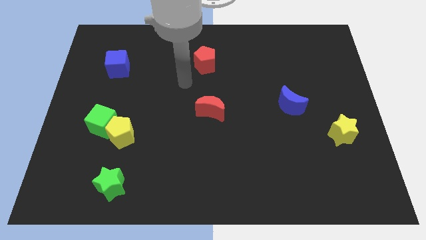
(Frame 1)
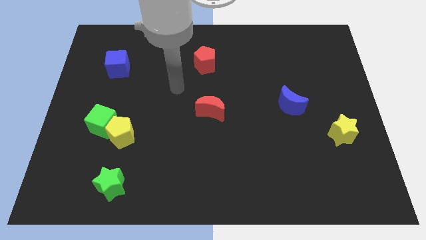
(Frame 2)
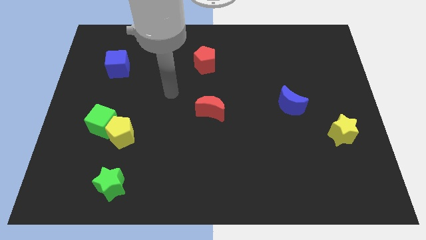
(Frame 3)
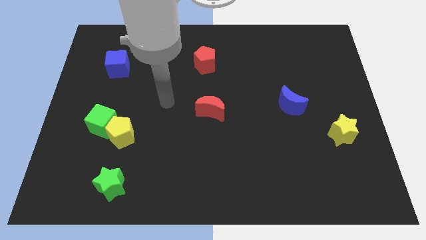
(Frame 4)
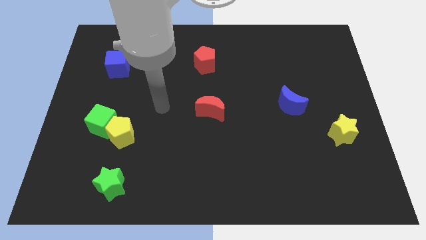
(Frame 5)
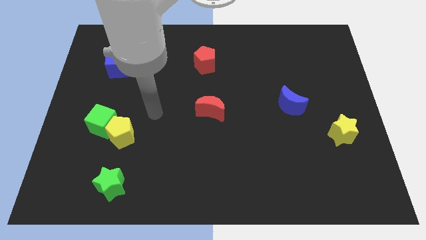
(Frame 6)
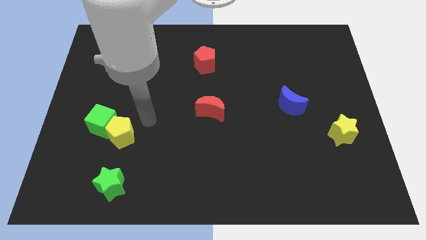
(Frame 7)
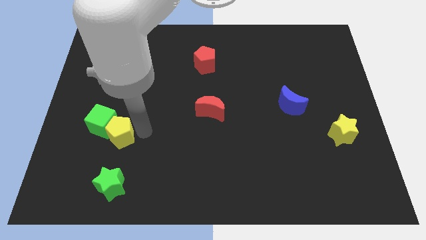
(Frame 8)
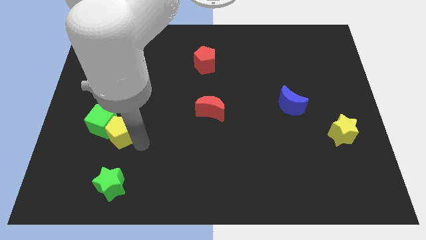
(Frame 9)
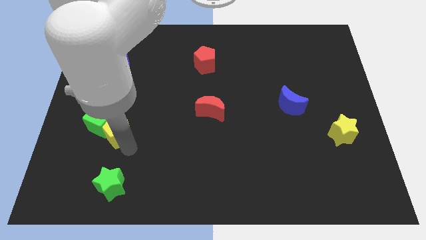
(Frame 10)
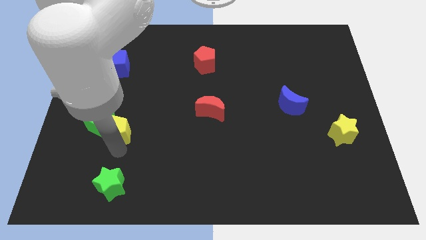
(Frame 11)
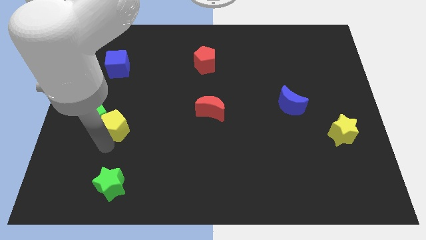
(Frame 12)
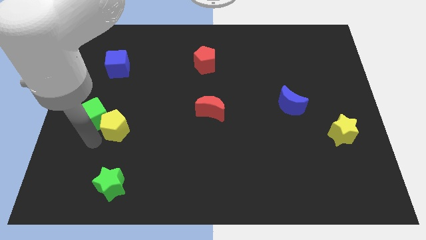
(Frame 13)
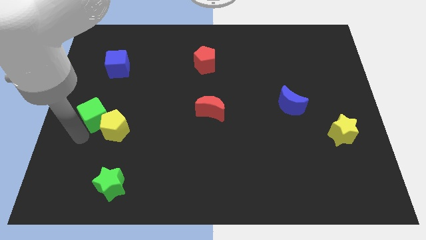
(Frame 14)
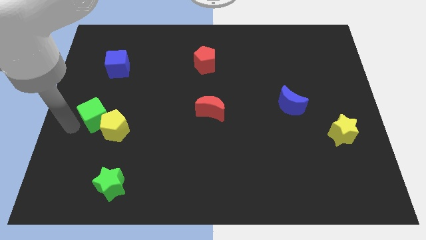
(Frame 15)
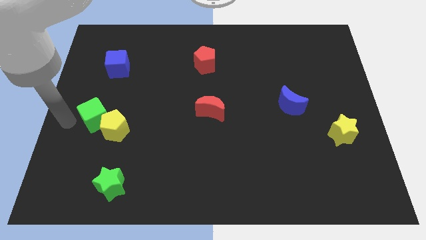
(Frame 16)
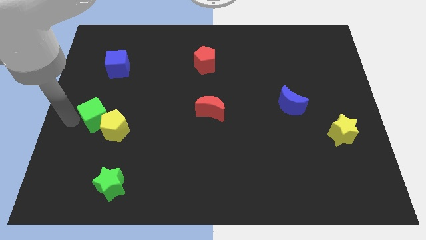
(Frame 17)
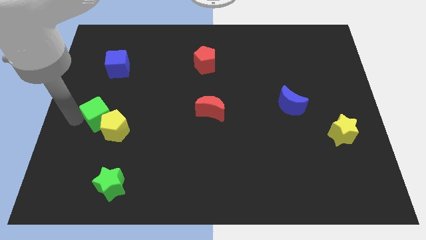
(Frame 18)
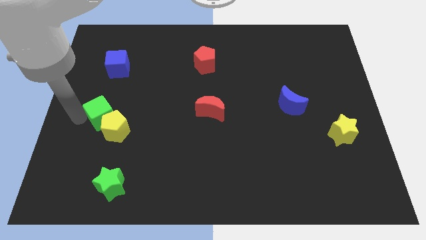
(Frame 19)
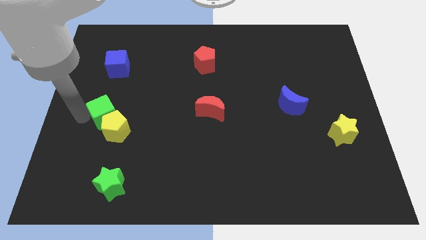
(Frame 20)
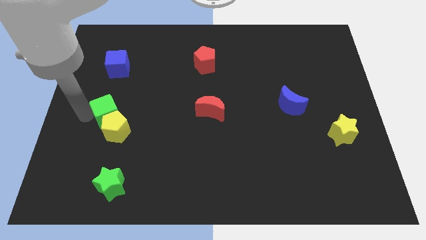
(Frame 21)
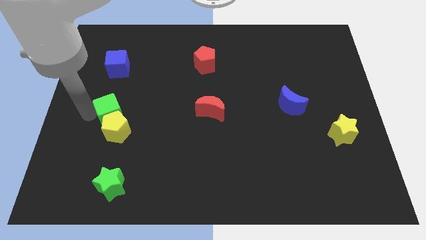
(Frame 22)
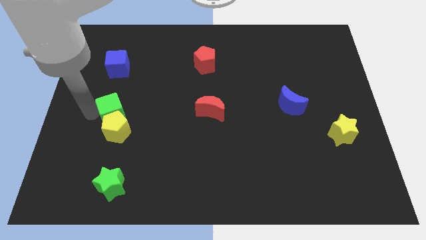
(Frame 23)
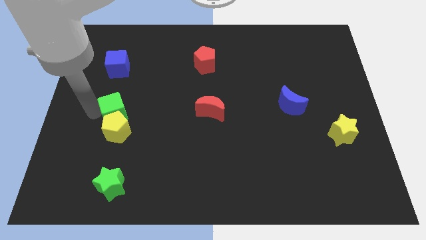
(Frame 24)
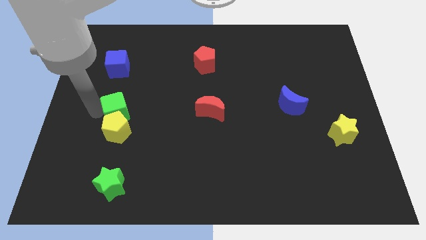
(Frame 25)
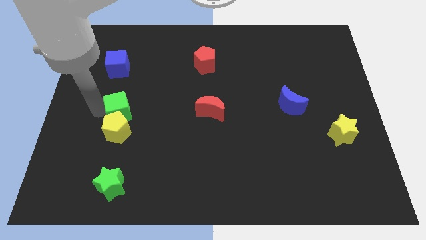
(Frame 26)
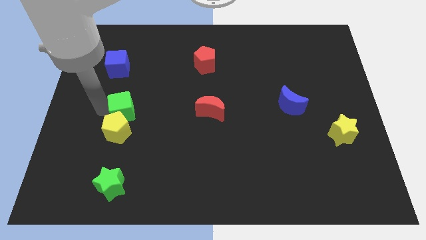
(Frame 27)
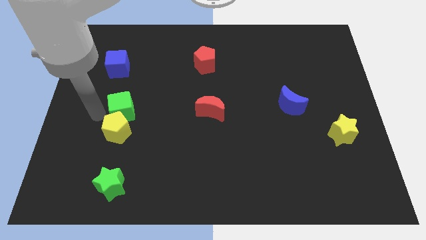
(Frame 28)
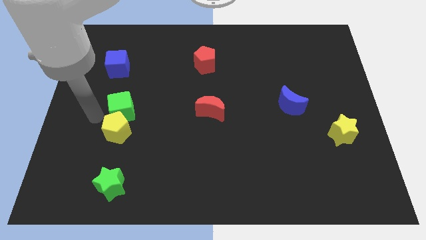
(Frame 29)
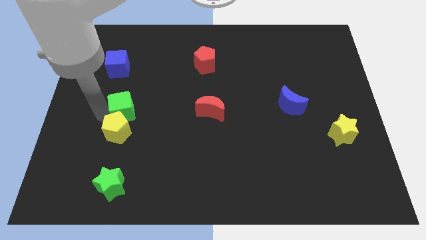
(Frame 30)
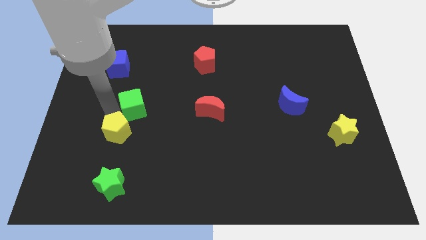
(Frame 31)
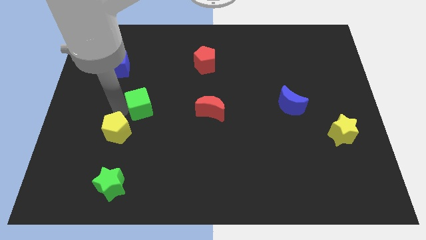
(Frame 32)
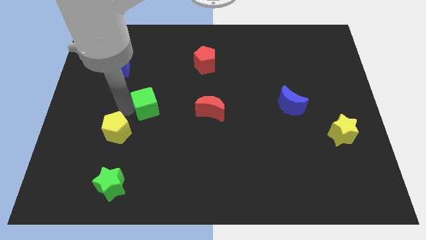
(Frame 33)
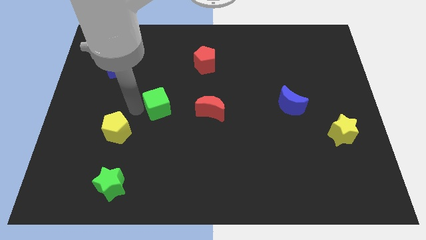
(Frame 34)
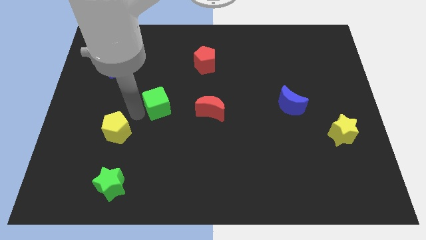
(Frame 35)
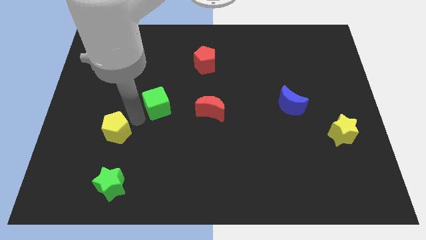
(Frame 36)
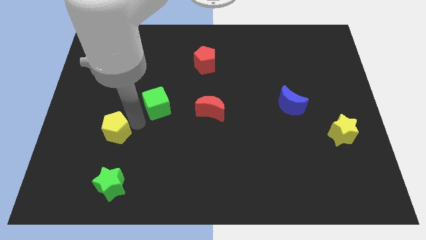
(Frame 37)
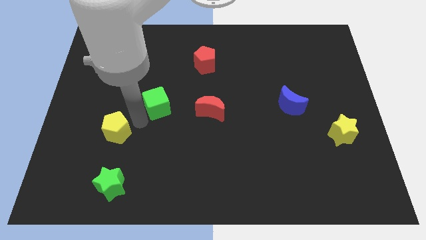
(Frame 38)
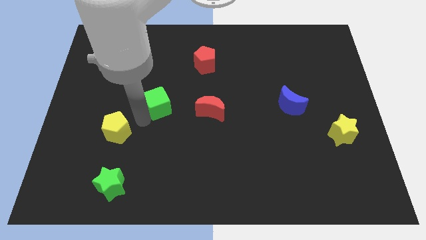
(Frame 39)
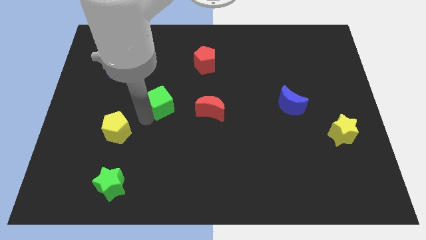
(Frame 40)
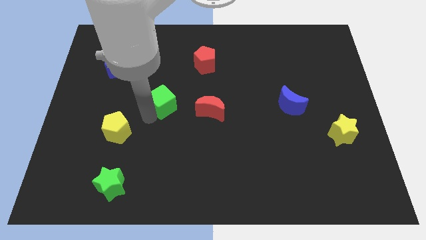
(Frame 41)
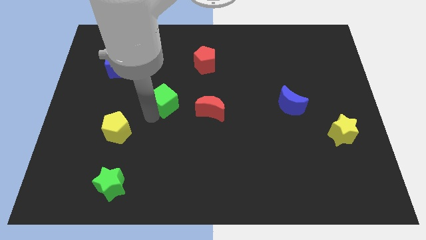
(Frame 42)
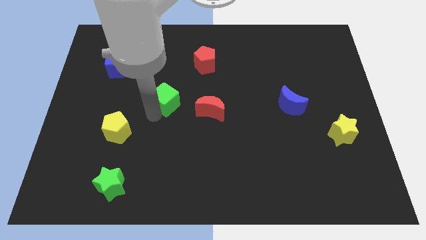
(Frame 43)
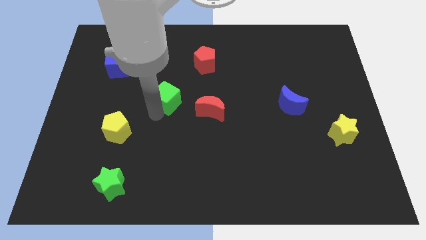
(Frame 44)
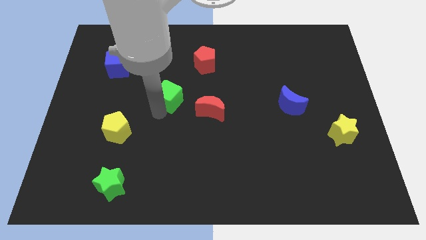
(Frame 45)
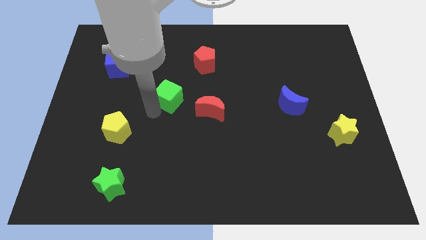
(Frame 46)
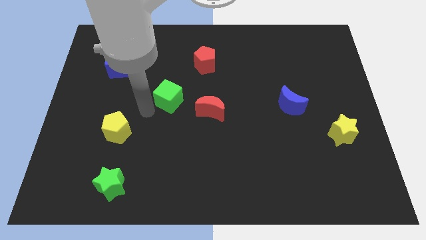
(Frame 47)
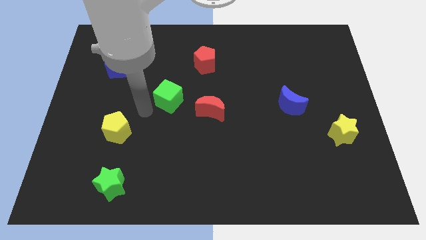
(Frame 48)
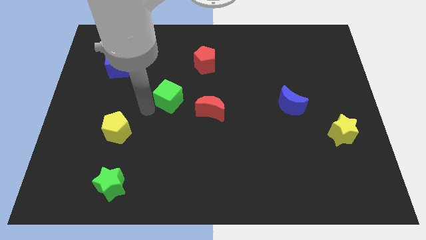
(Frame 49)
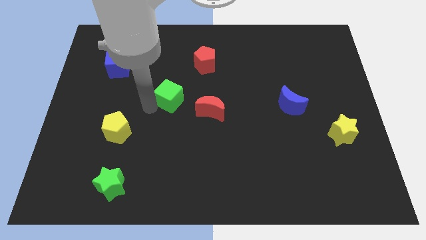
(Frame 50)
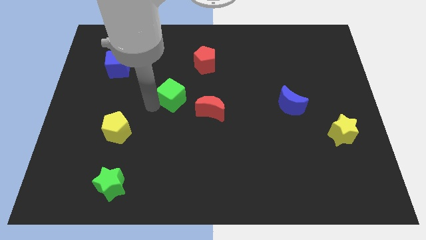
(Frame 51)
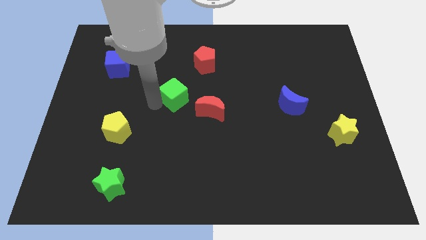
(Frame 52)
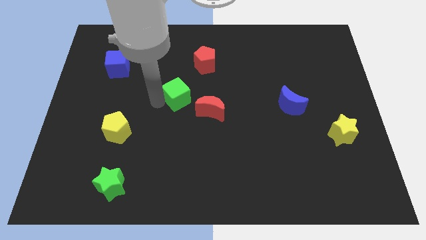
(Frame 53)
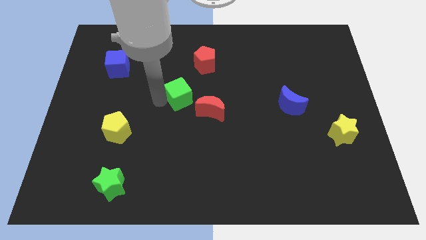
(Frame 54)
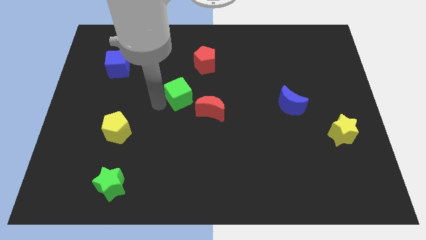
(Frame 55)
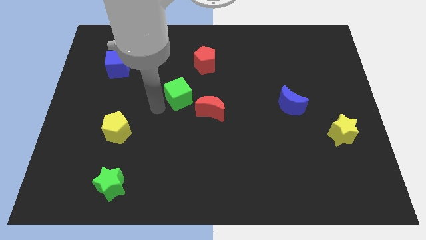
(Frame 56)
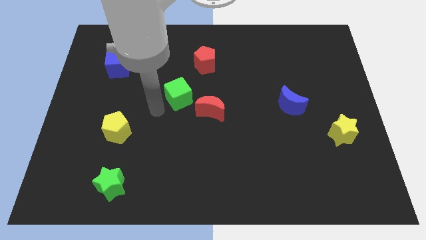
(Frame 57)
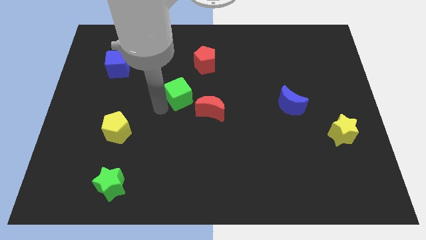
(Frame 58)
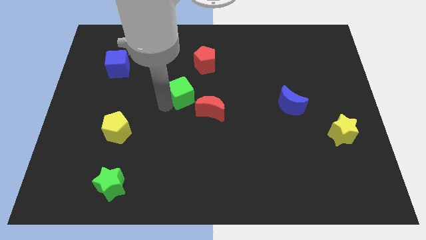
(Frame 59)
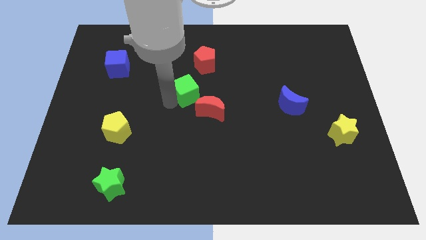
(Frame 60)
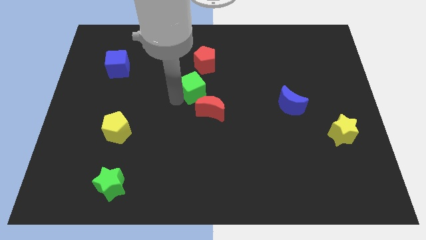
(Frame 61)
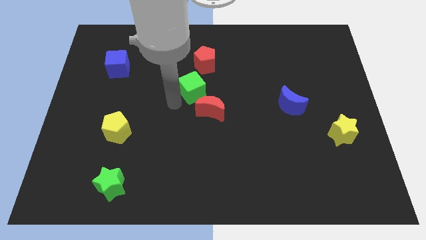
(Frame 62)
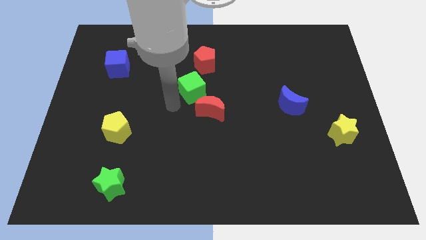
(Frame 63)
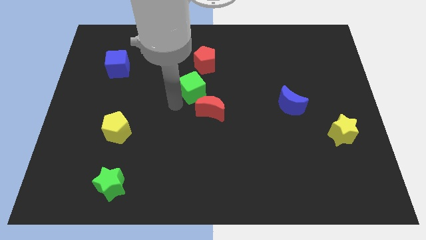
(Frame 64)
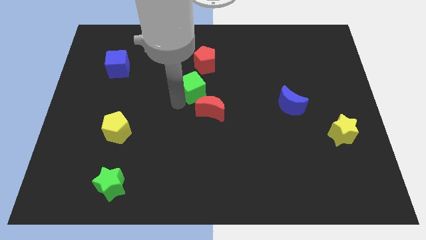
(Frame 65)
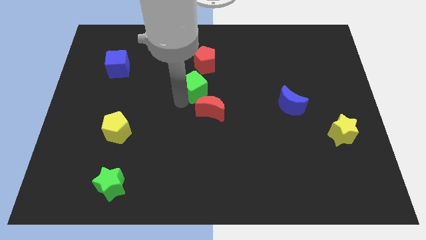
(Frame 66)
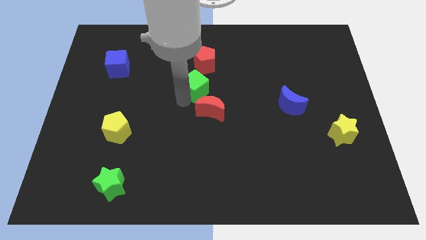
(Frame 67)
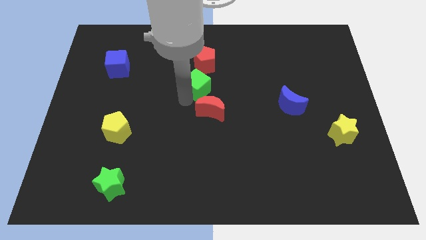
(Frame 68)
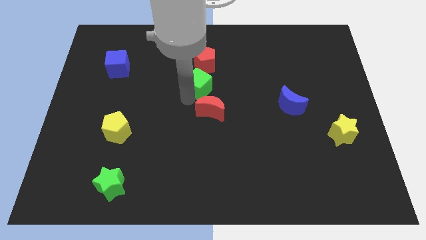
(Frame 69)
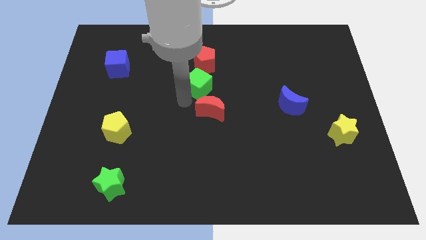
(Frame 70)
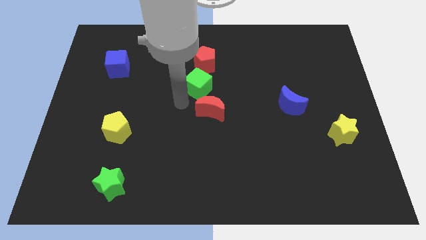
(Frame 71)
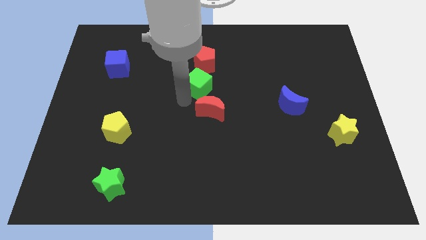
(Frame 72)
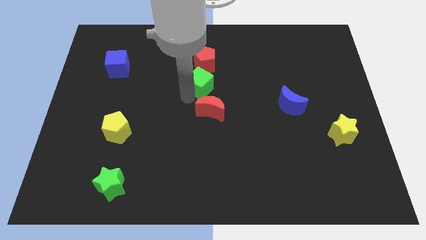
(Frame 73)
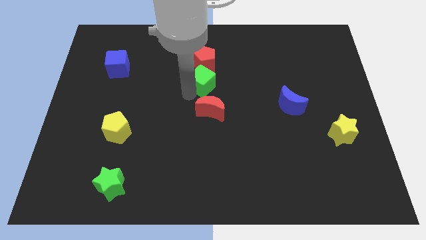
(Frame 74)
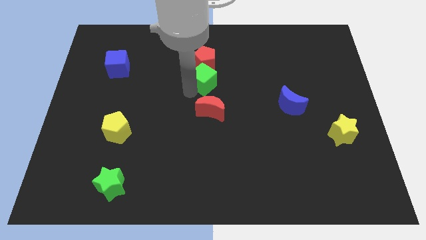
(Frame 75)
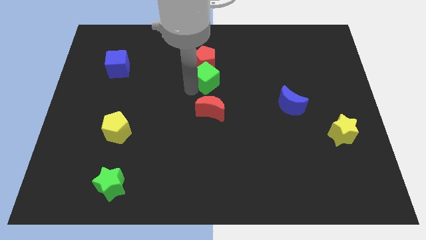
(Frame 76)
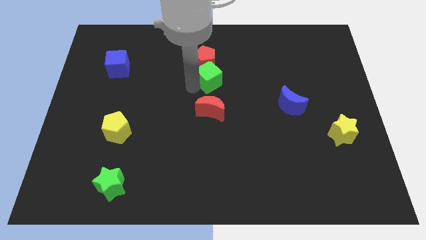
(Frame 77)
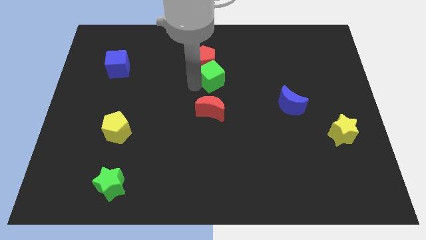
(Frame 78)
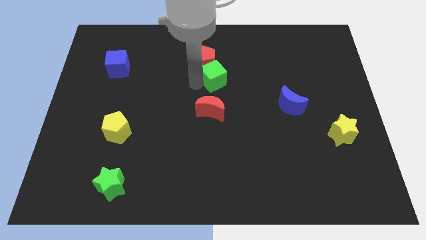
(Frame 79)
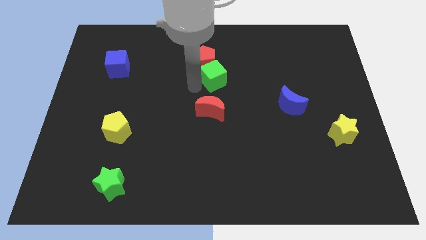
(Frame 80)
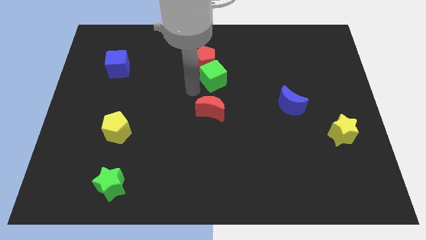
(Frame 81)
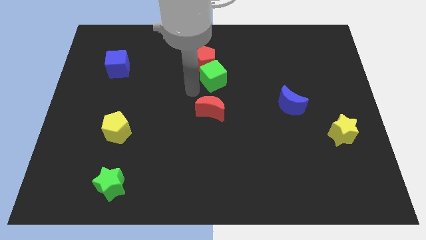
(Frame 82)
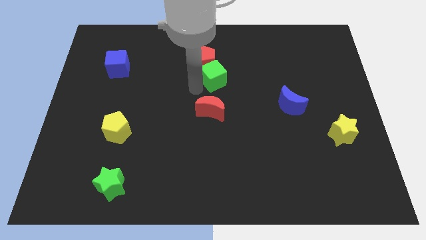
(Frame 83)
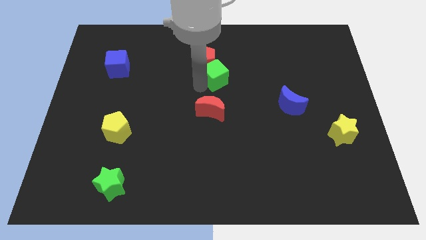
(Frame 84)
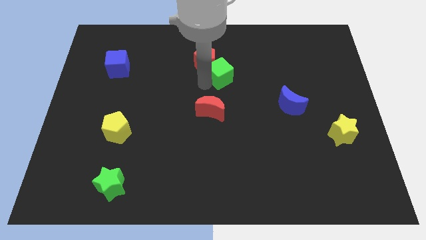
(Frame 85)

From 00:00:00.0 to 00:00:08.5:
slide the green cube to the right of the red pentagon
